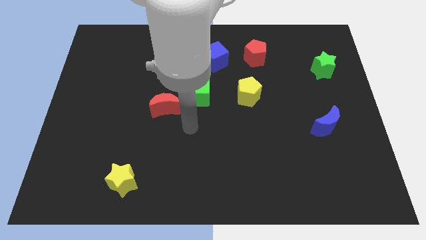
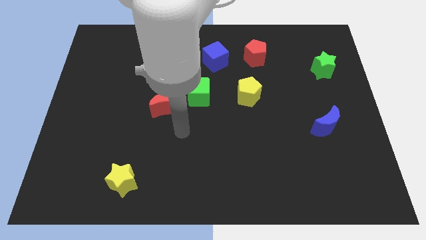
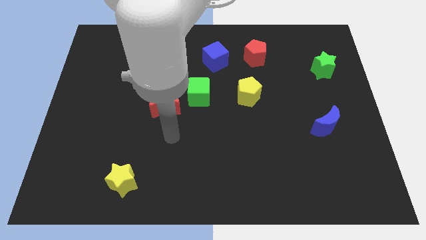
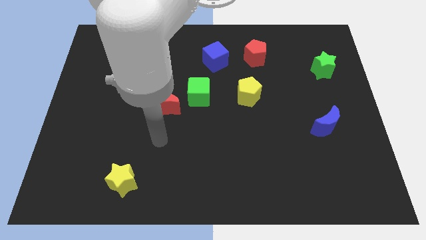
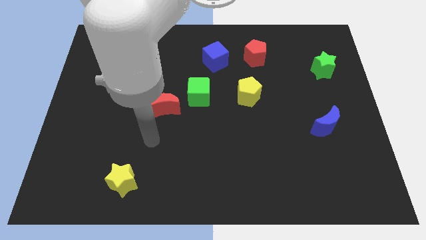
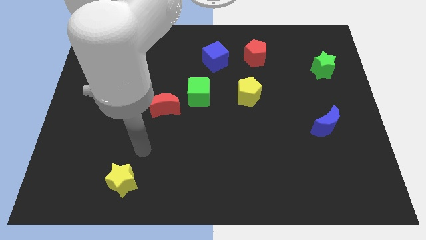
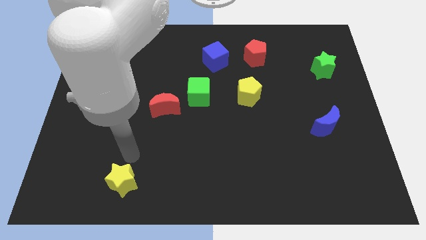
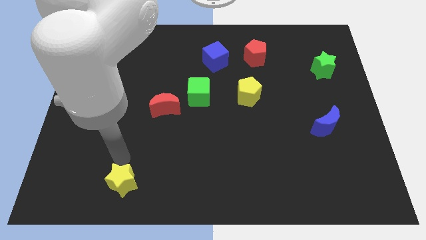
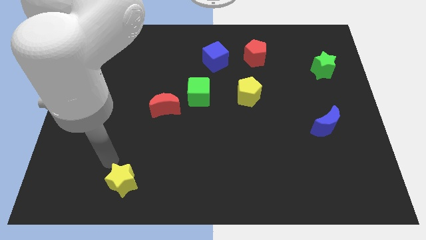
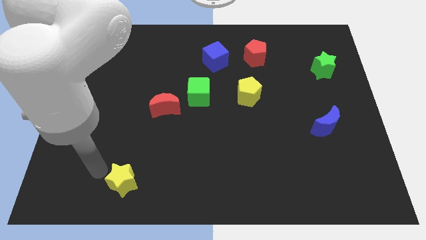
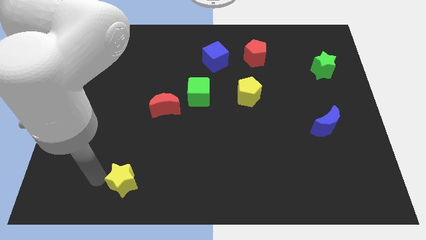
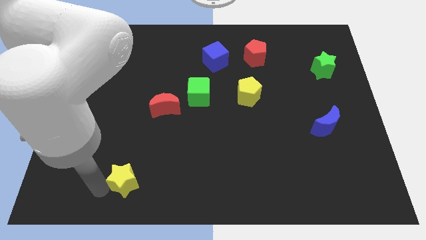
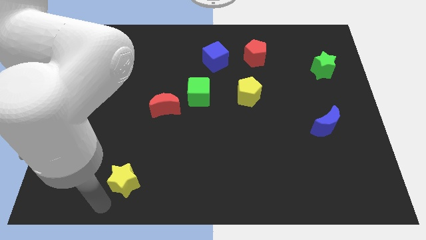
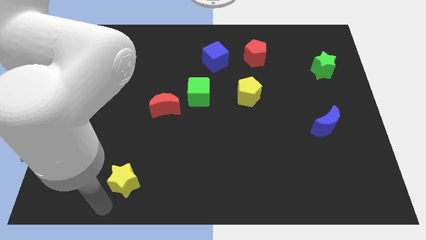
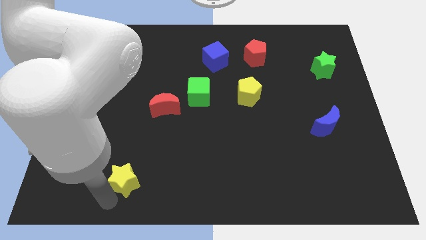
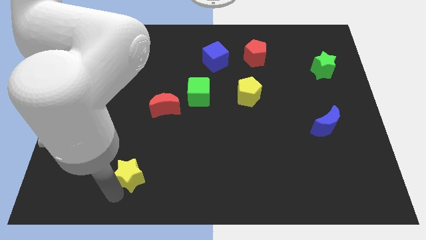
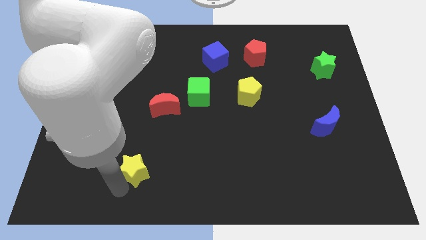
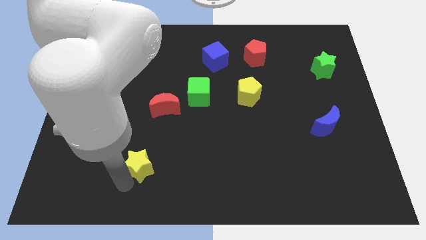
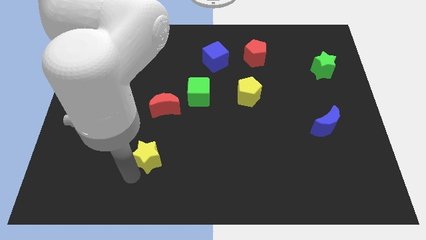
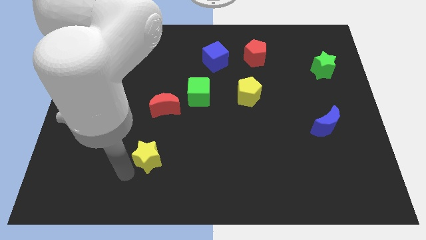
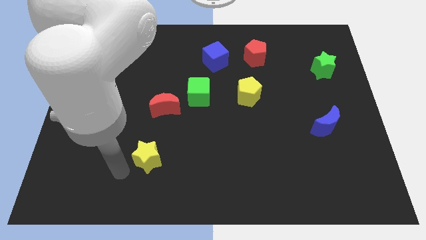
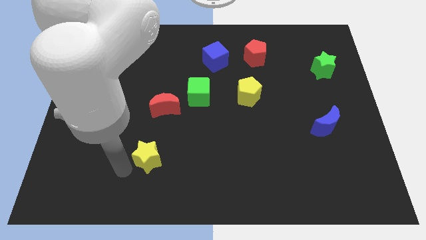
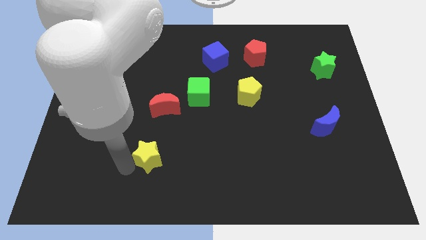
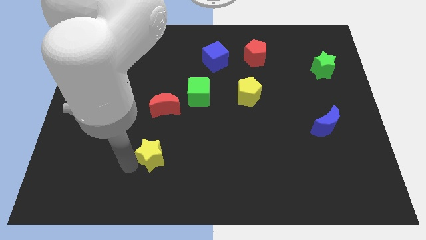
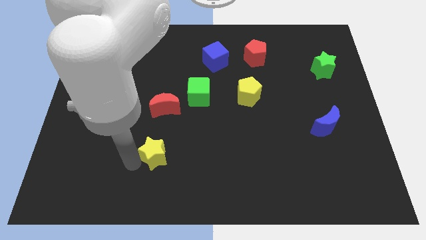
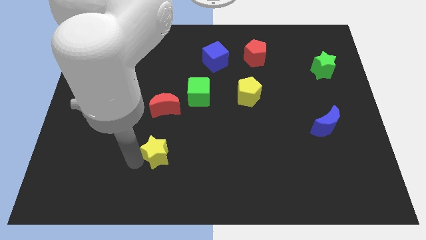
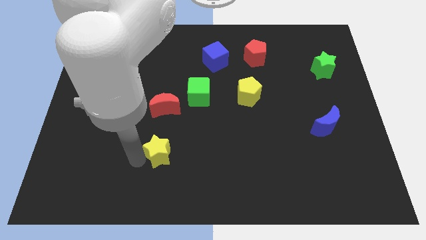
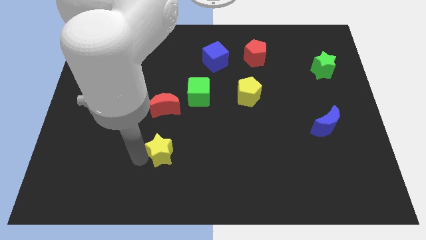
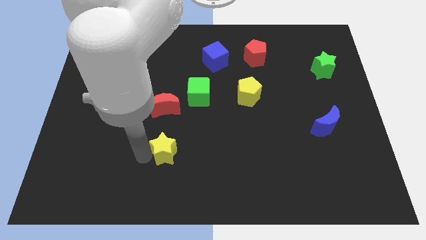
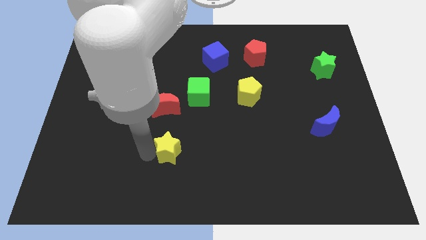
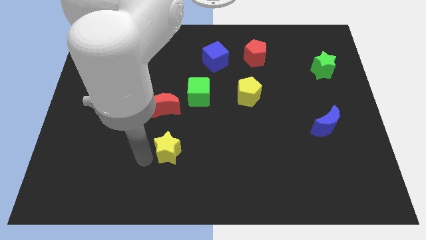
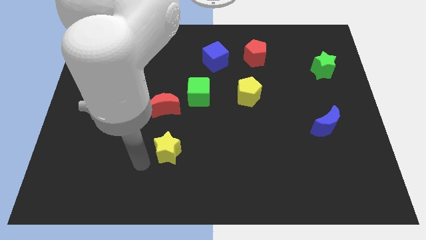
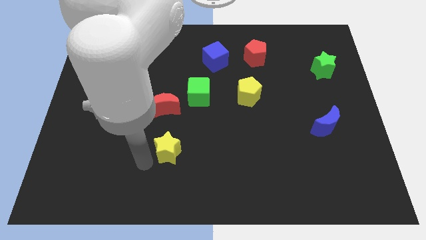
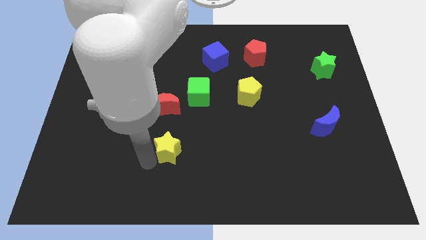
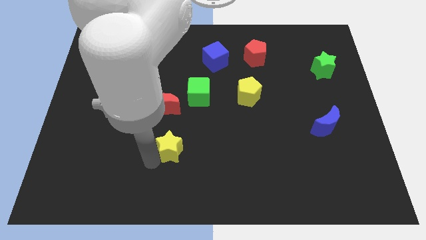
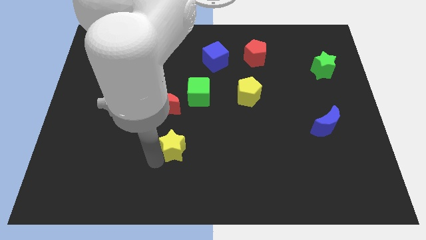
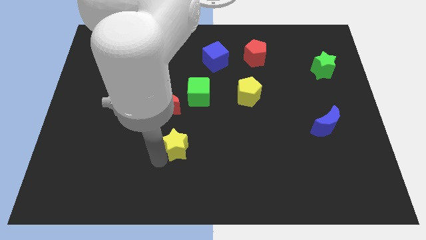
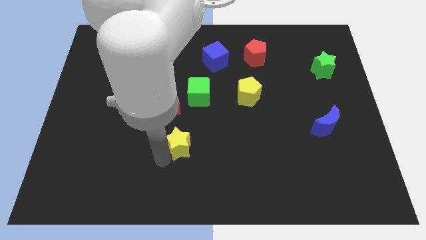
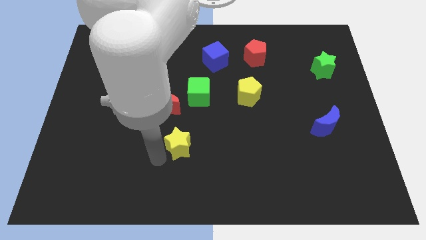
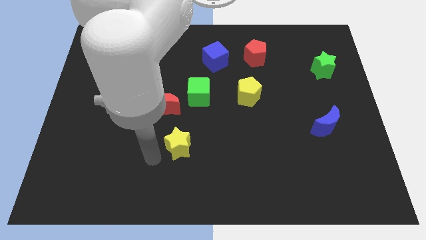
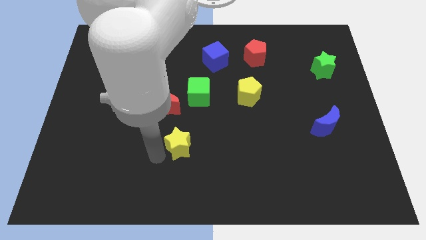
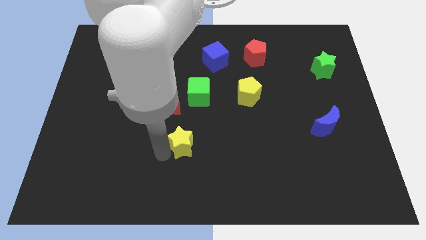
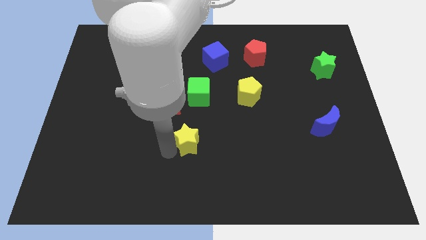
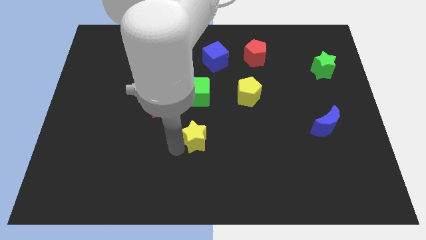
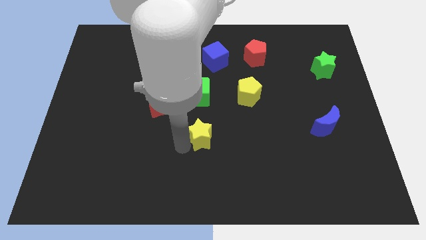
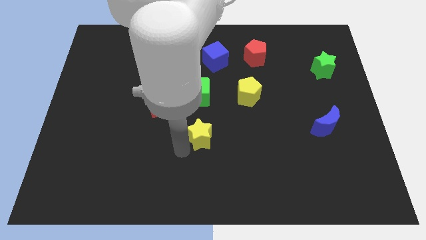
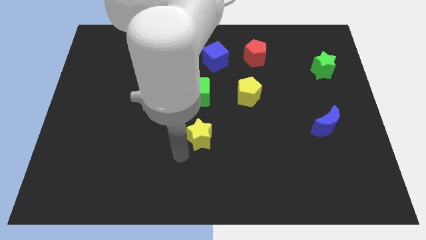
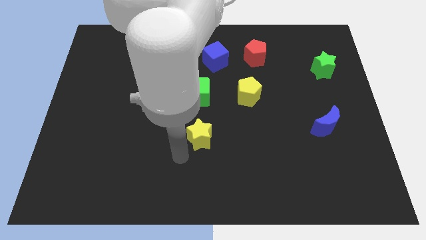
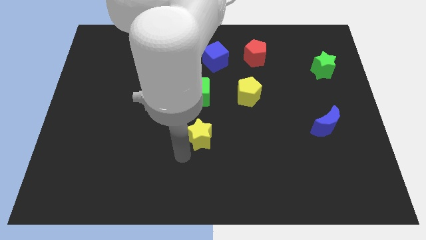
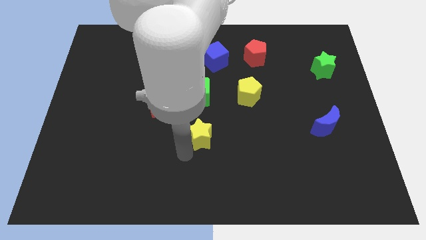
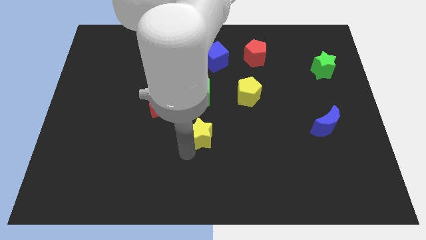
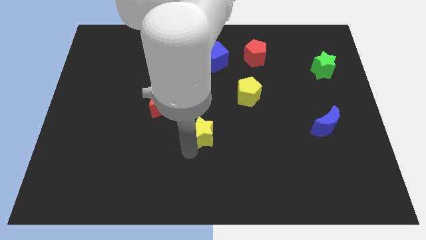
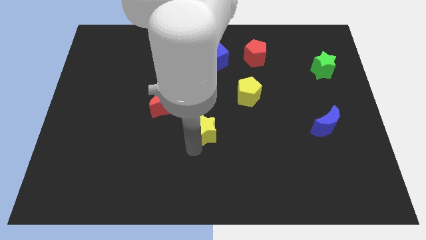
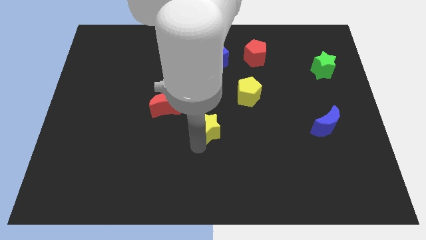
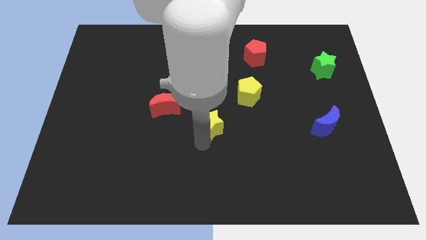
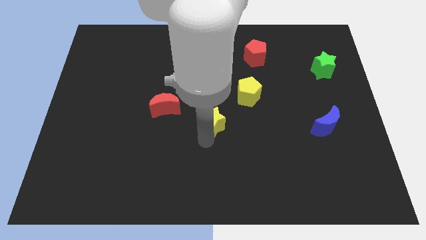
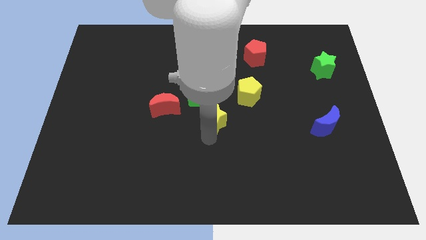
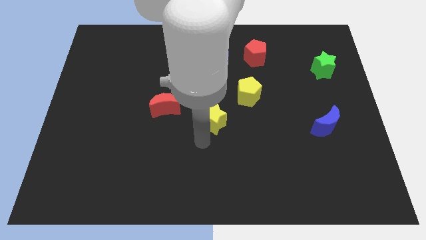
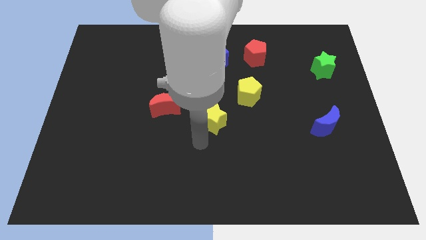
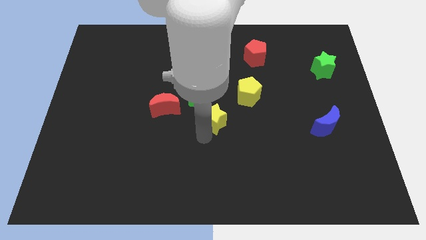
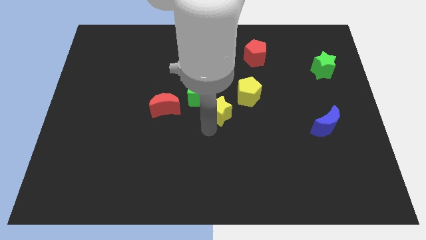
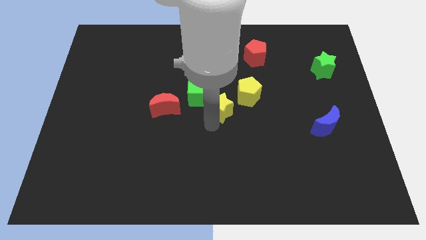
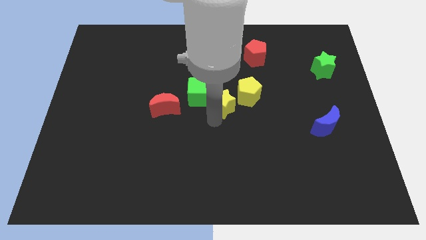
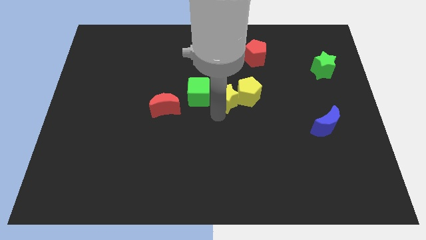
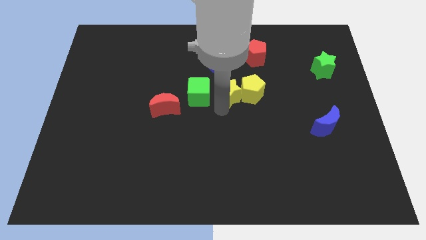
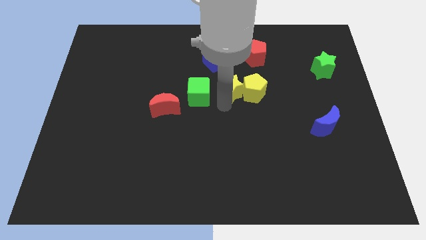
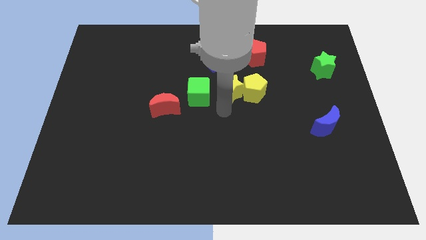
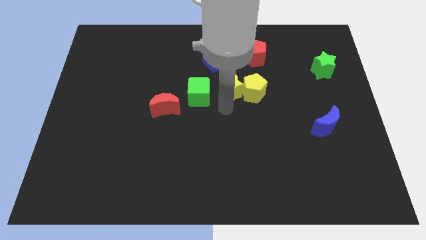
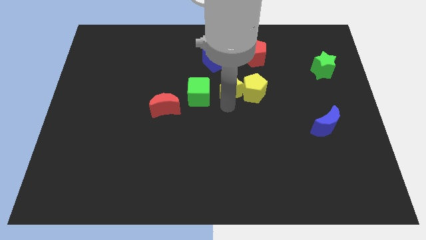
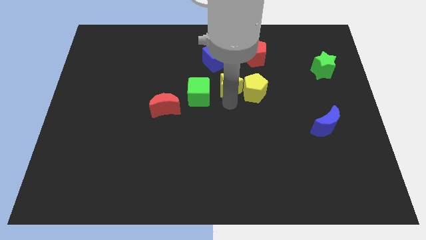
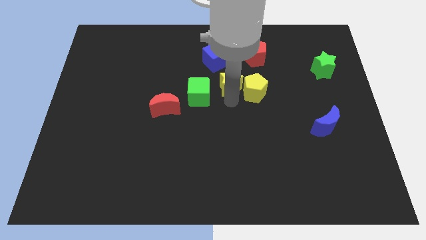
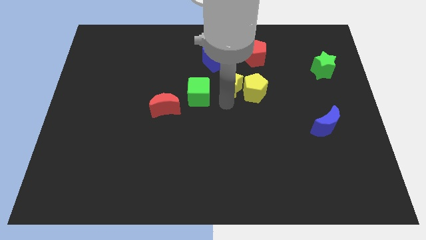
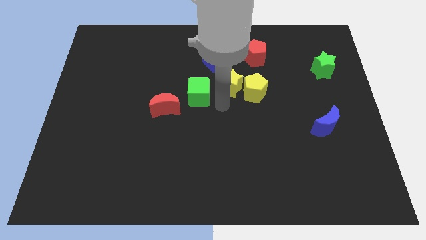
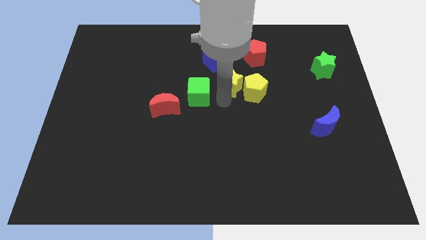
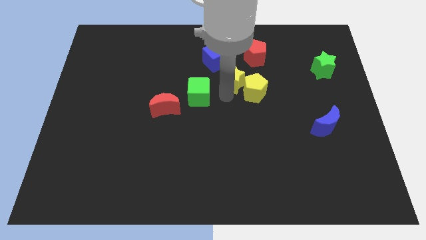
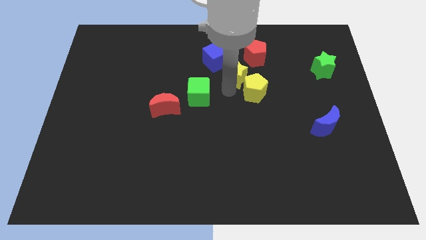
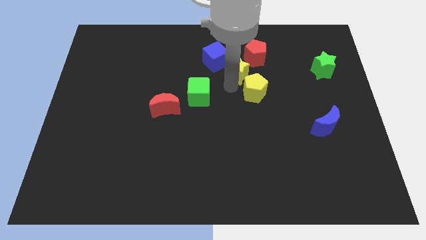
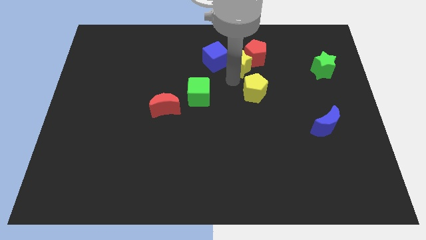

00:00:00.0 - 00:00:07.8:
move the yellow star to the red pentagon
